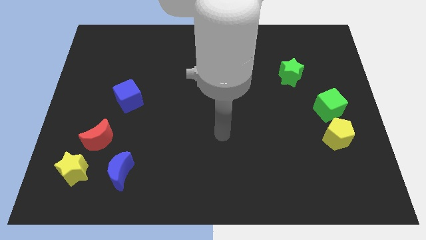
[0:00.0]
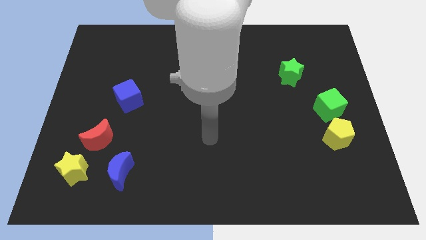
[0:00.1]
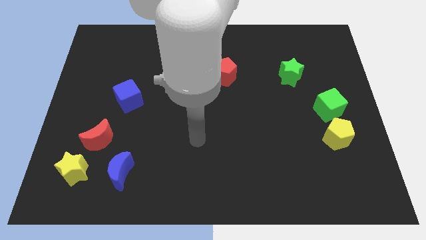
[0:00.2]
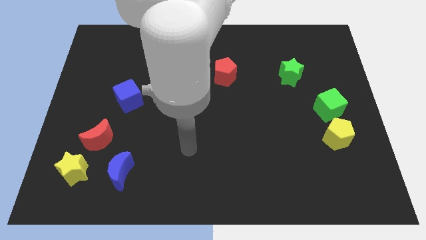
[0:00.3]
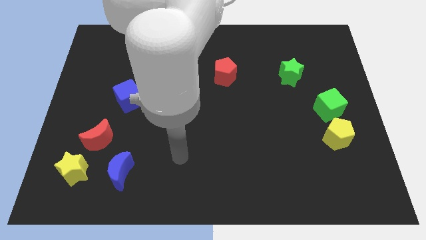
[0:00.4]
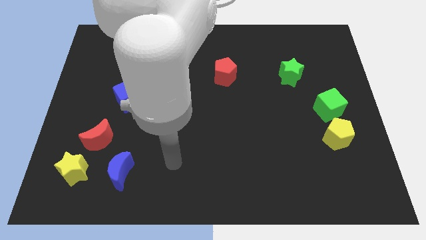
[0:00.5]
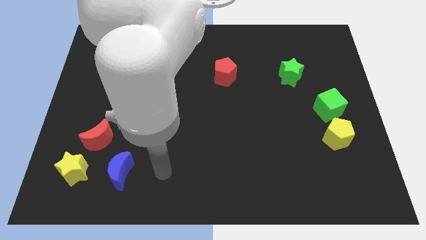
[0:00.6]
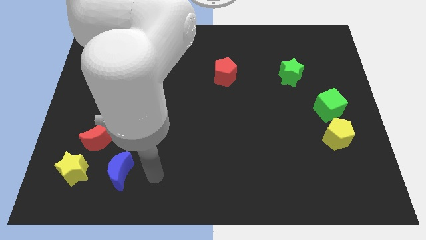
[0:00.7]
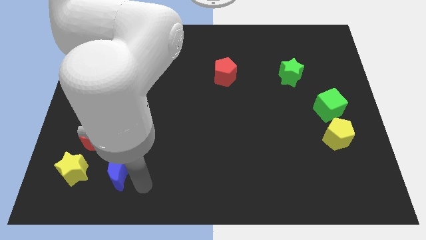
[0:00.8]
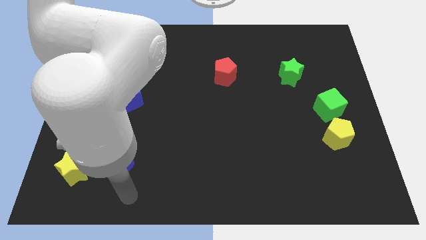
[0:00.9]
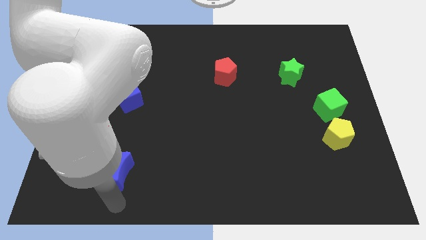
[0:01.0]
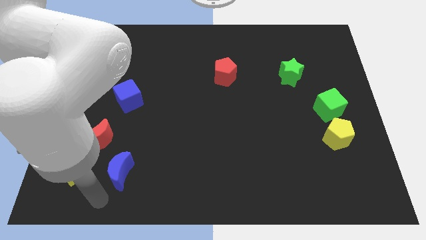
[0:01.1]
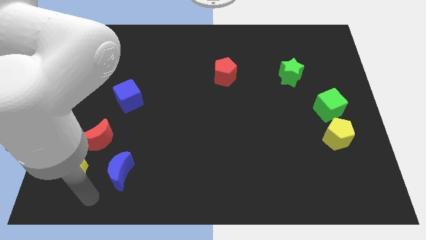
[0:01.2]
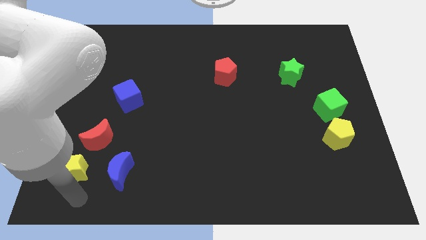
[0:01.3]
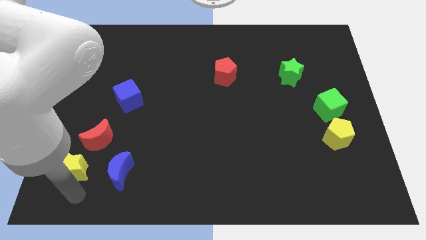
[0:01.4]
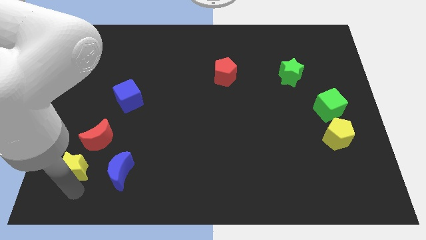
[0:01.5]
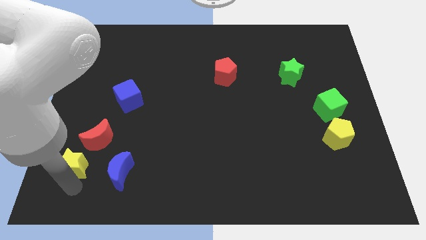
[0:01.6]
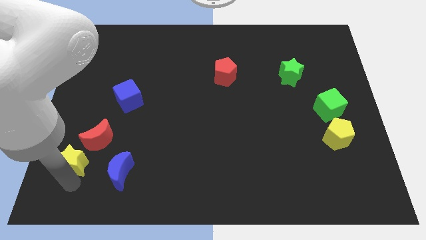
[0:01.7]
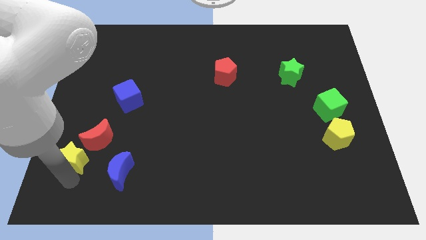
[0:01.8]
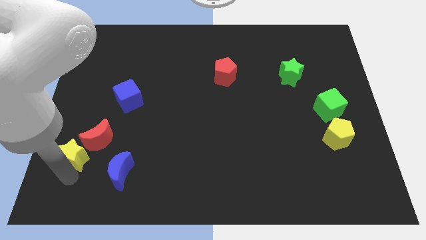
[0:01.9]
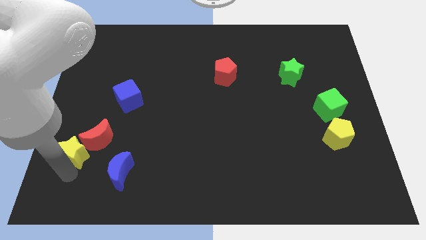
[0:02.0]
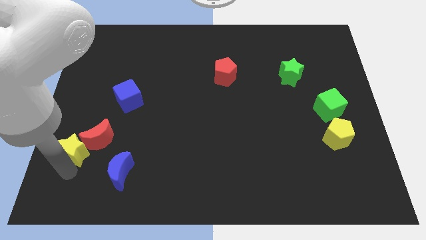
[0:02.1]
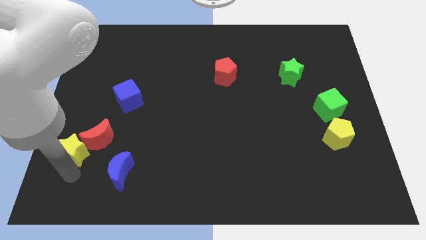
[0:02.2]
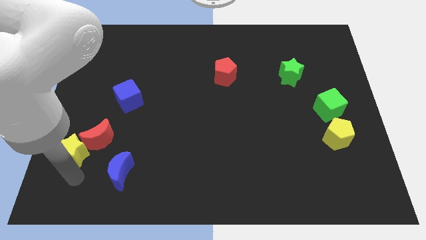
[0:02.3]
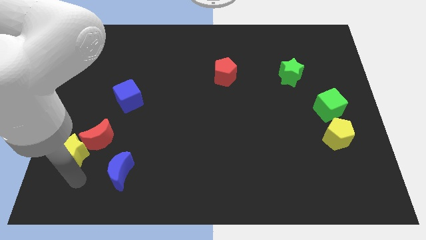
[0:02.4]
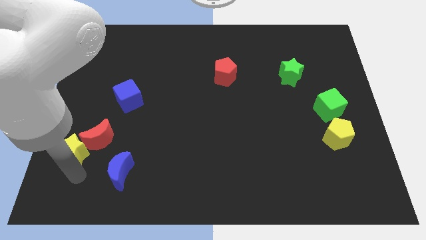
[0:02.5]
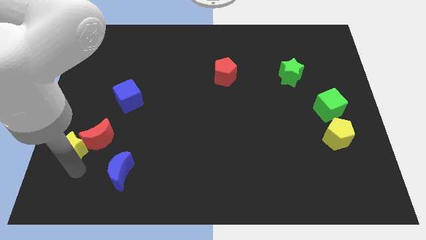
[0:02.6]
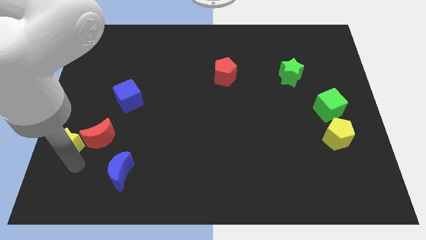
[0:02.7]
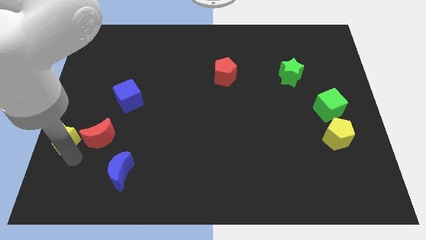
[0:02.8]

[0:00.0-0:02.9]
slide the yellow star upwards somewhat

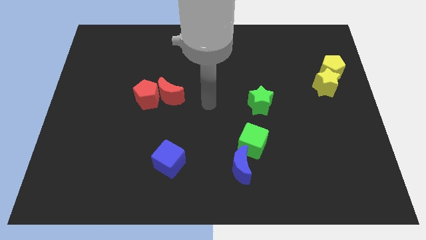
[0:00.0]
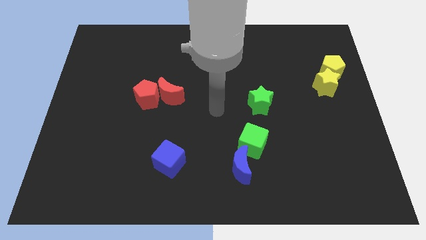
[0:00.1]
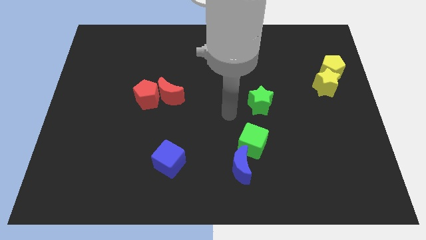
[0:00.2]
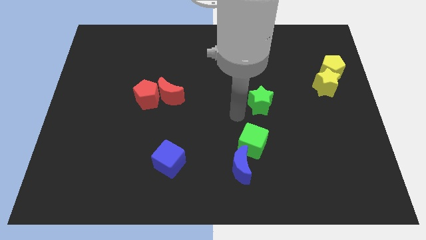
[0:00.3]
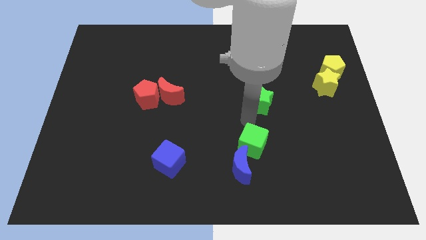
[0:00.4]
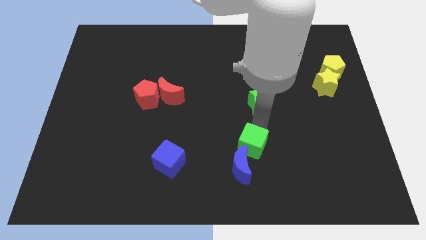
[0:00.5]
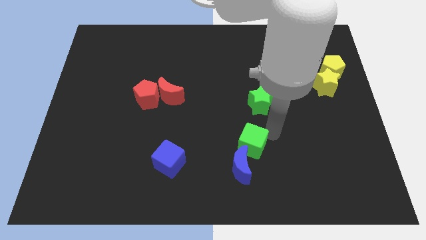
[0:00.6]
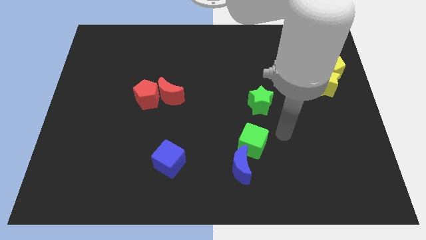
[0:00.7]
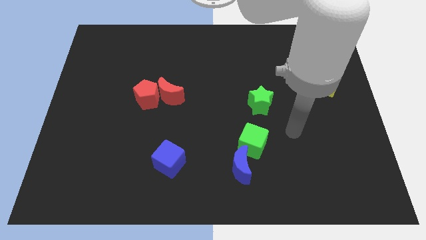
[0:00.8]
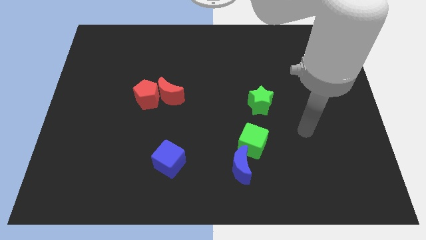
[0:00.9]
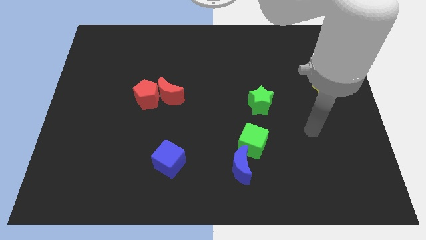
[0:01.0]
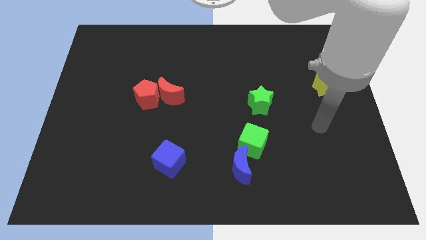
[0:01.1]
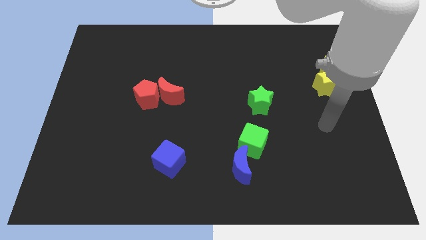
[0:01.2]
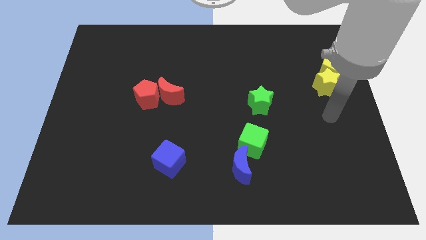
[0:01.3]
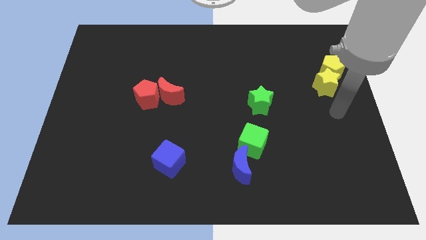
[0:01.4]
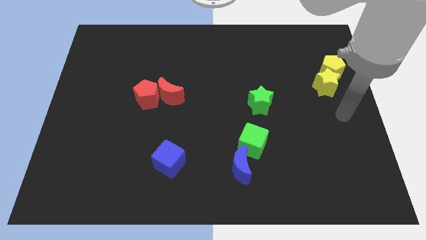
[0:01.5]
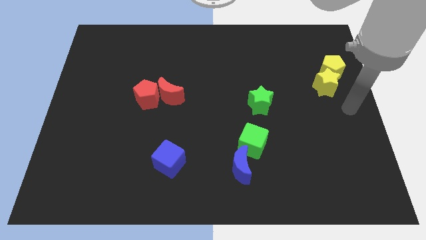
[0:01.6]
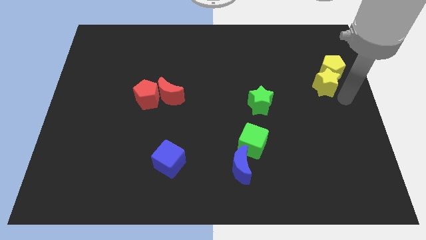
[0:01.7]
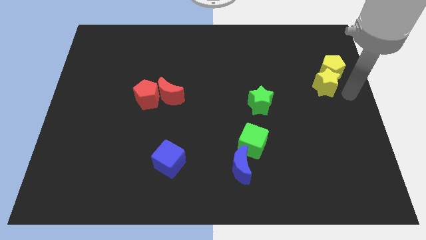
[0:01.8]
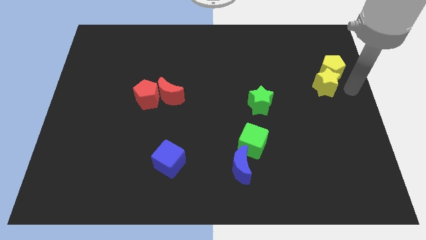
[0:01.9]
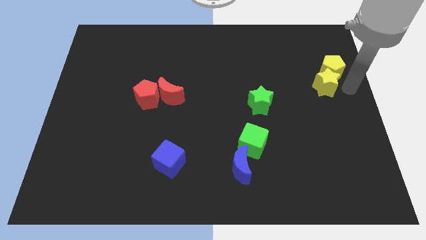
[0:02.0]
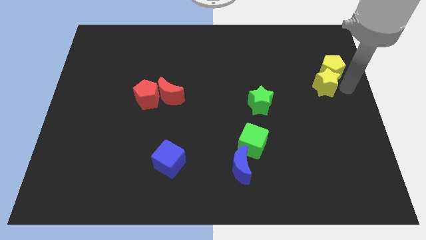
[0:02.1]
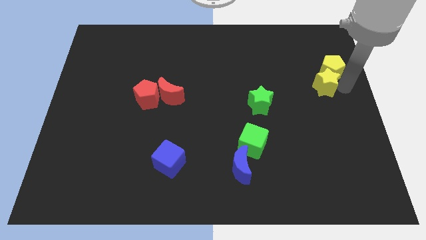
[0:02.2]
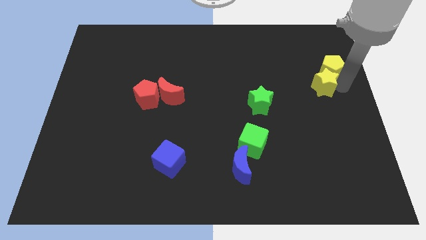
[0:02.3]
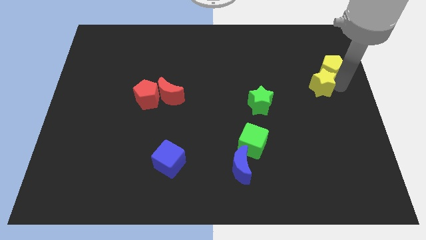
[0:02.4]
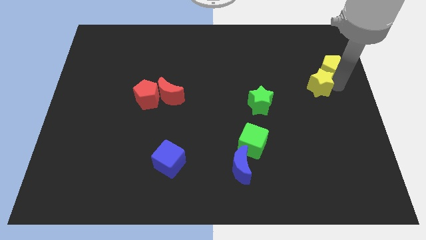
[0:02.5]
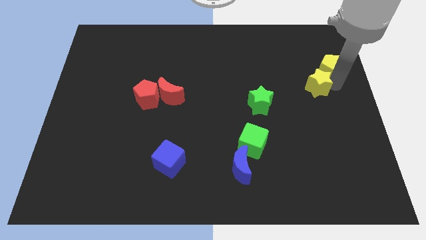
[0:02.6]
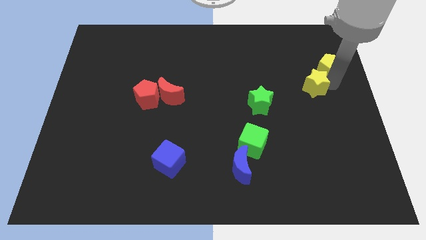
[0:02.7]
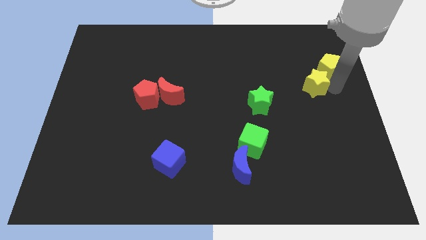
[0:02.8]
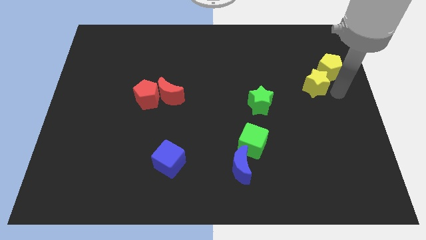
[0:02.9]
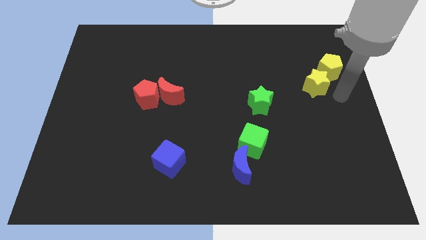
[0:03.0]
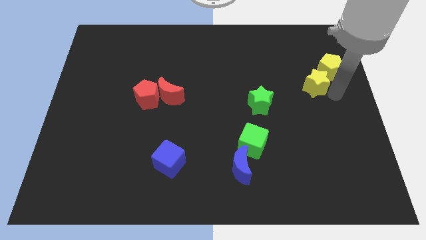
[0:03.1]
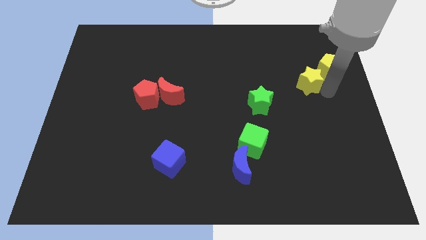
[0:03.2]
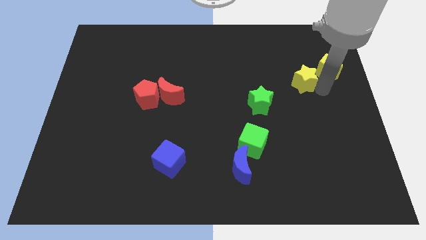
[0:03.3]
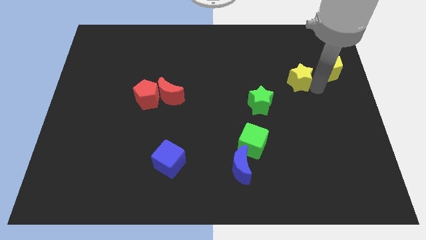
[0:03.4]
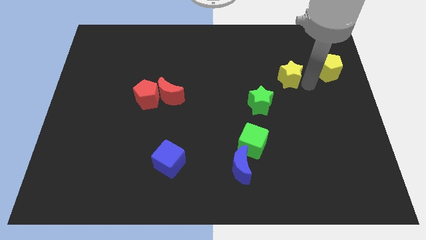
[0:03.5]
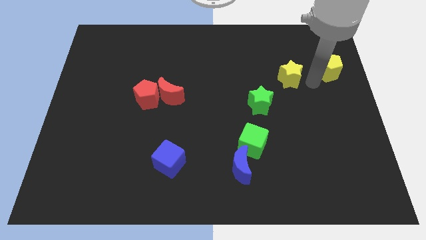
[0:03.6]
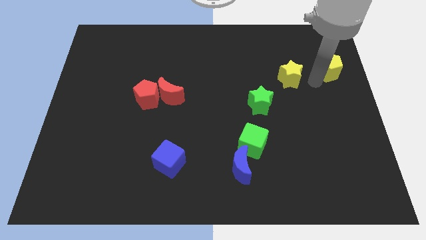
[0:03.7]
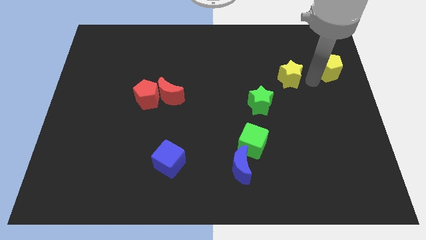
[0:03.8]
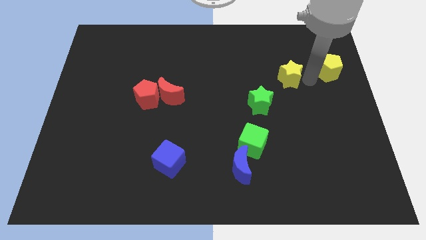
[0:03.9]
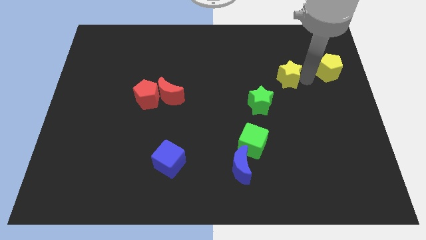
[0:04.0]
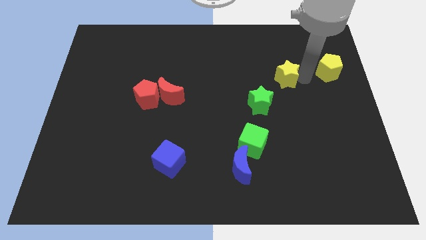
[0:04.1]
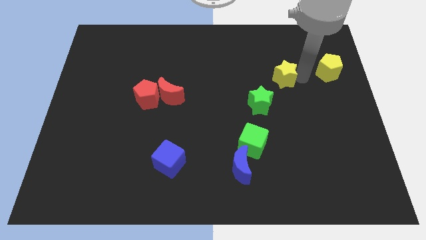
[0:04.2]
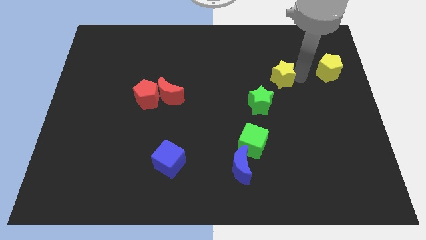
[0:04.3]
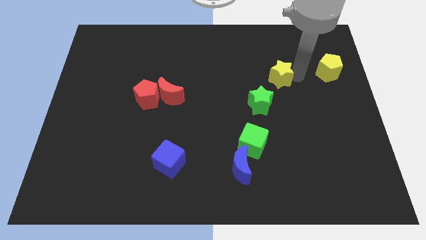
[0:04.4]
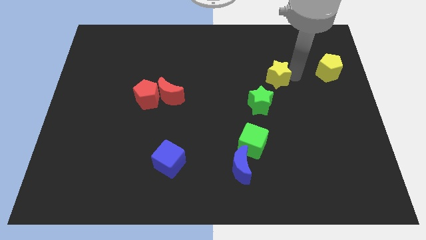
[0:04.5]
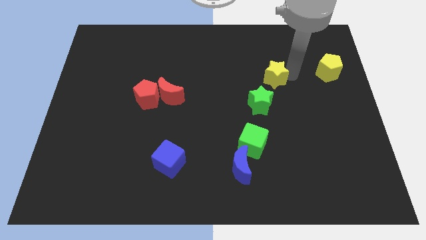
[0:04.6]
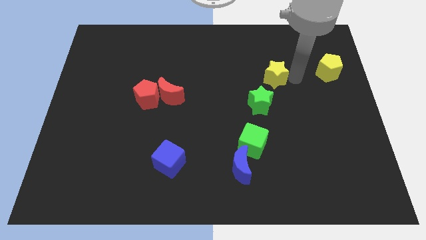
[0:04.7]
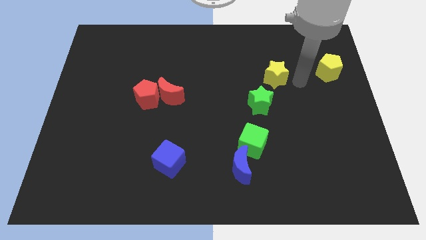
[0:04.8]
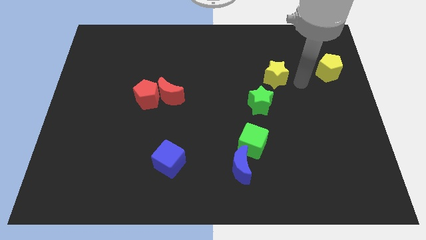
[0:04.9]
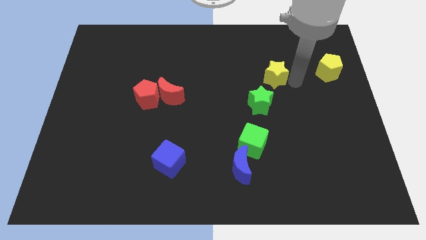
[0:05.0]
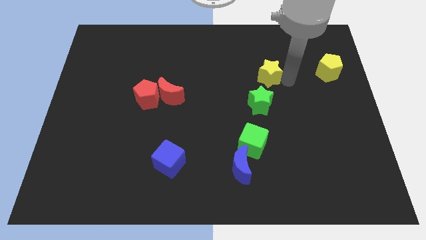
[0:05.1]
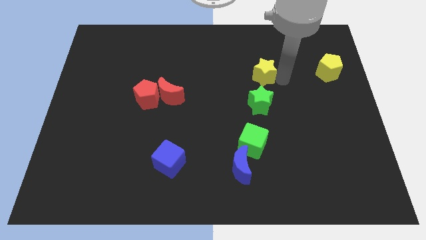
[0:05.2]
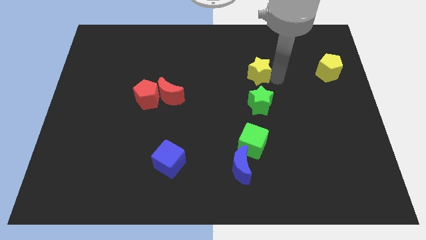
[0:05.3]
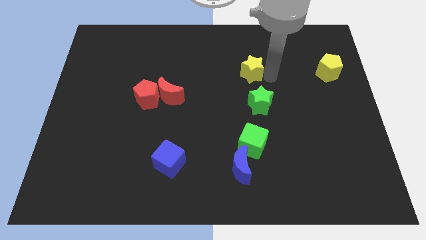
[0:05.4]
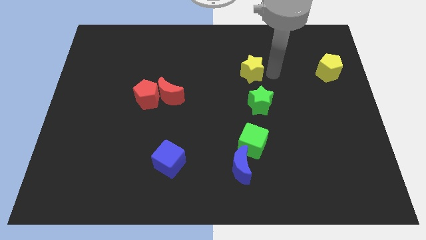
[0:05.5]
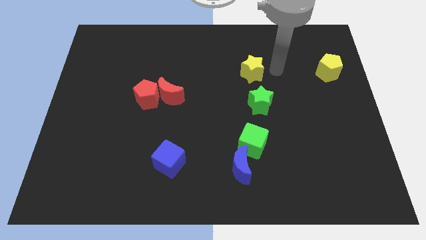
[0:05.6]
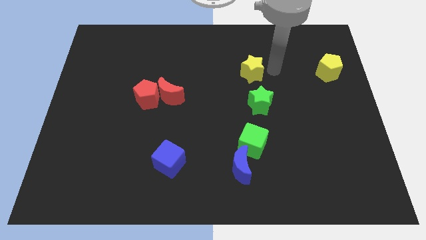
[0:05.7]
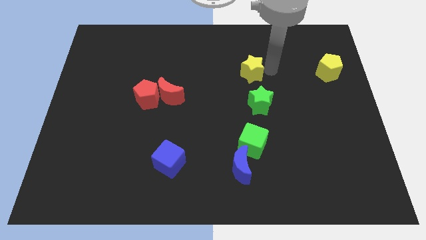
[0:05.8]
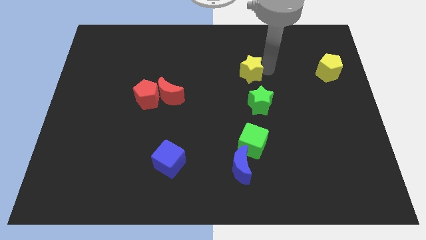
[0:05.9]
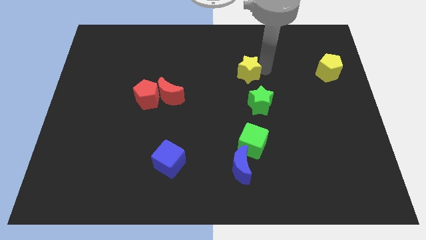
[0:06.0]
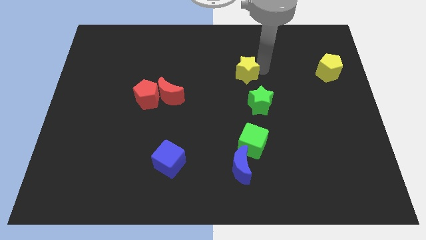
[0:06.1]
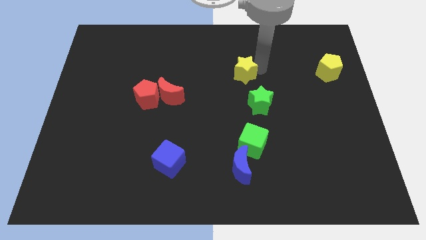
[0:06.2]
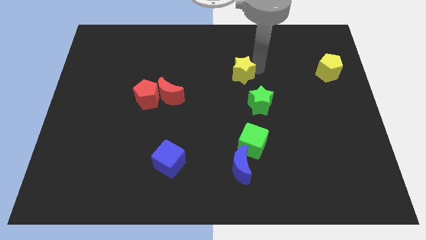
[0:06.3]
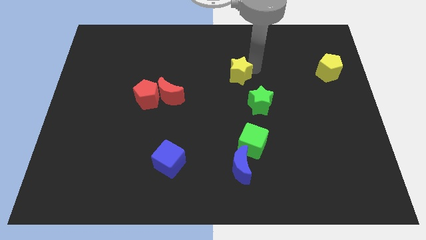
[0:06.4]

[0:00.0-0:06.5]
slide the yellow star to the left
